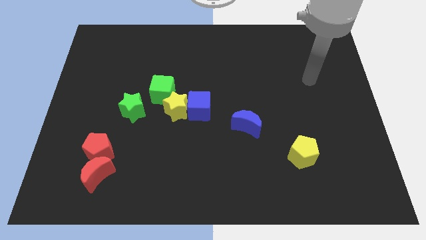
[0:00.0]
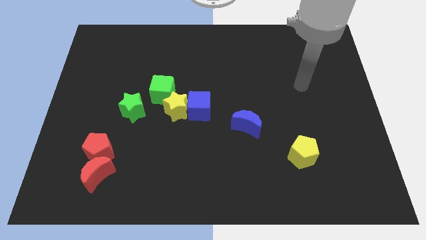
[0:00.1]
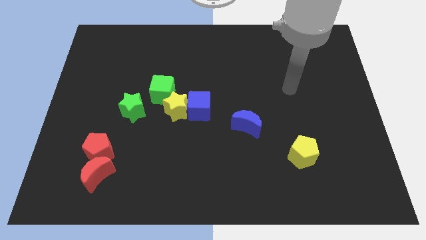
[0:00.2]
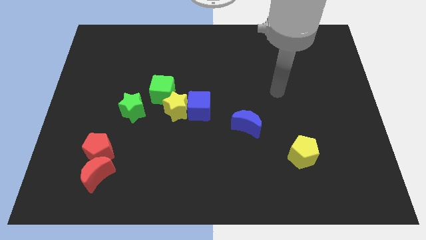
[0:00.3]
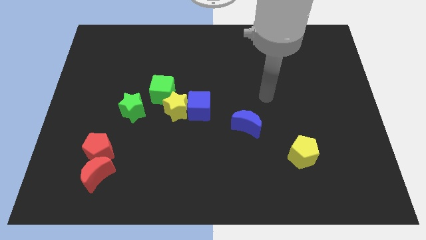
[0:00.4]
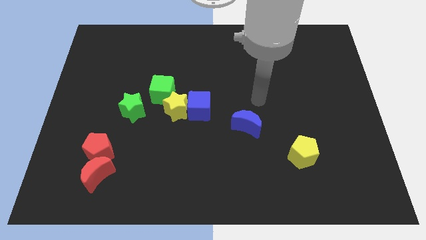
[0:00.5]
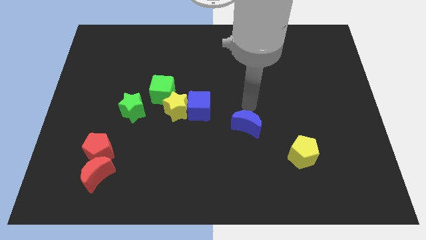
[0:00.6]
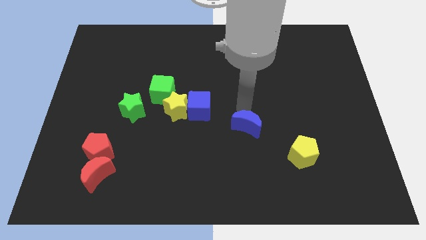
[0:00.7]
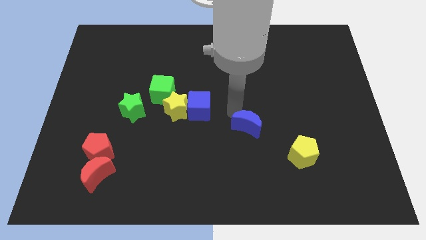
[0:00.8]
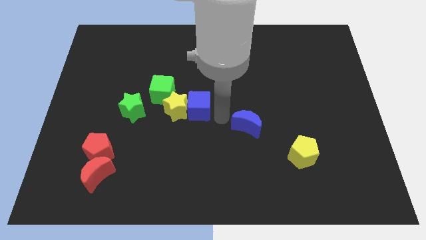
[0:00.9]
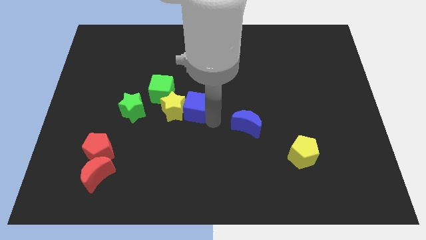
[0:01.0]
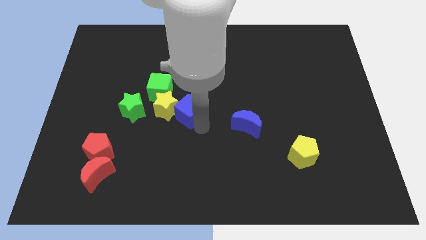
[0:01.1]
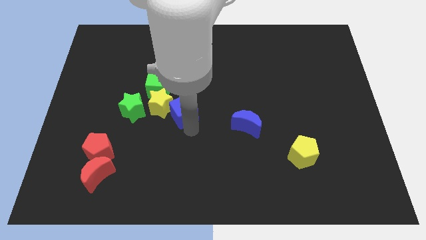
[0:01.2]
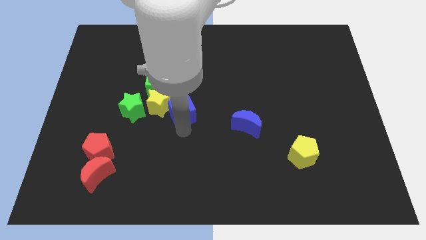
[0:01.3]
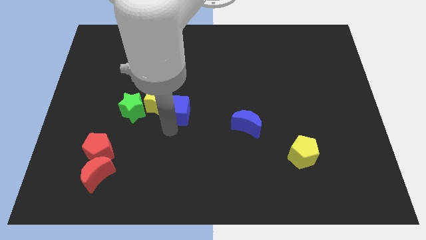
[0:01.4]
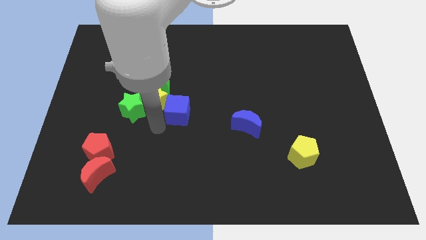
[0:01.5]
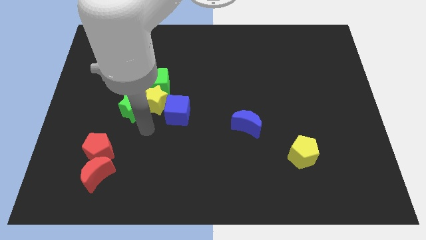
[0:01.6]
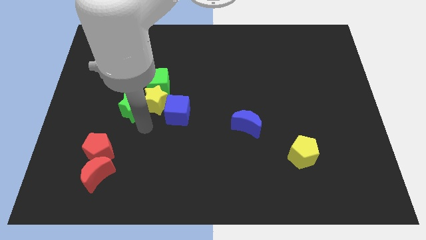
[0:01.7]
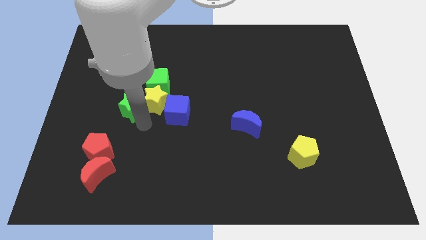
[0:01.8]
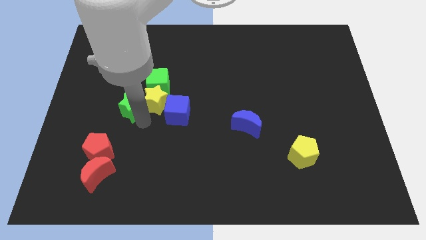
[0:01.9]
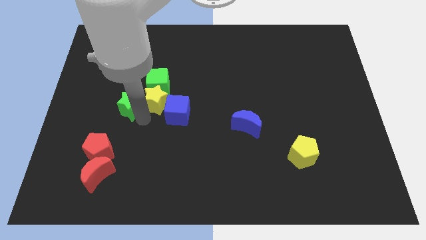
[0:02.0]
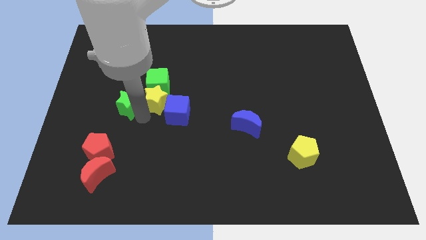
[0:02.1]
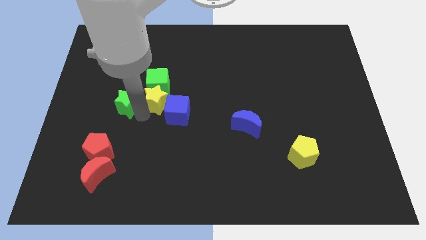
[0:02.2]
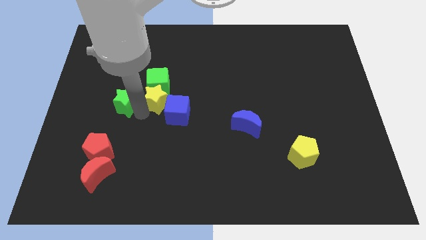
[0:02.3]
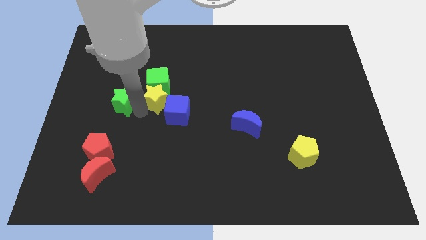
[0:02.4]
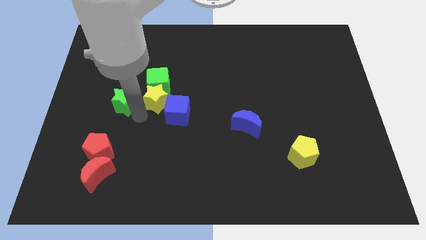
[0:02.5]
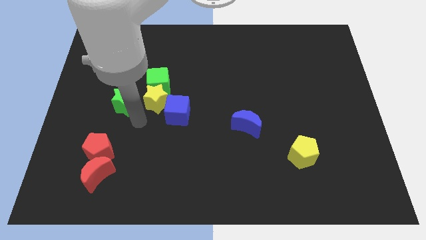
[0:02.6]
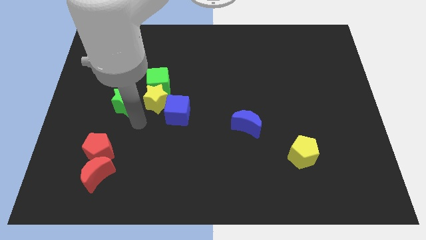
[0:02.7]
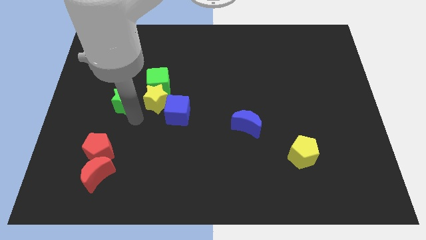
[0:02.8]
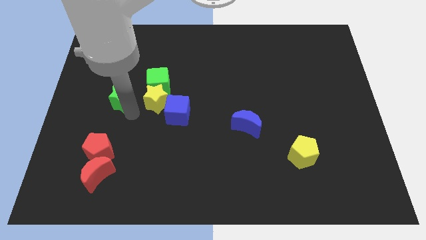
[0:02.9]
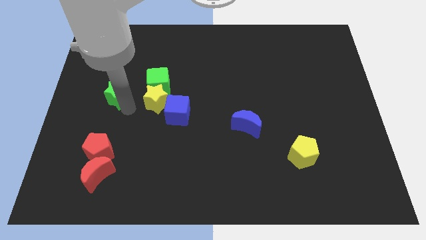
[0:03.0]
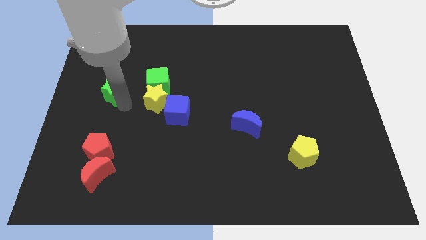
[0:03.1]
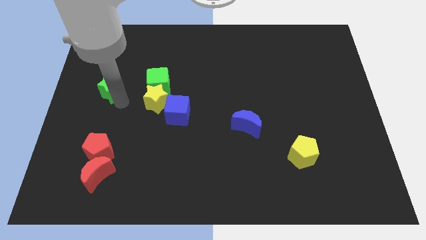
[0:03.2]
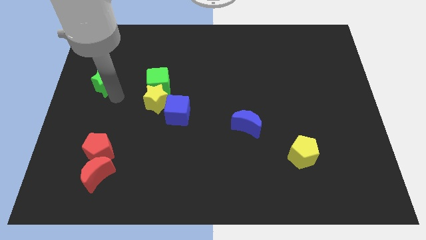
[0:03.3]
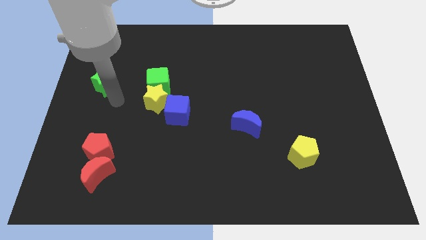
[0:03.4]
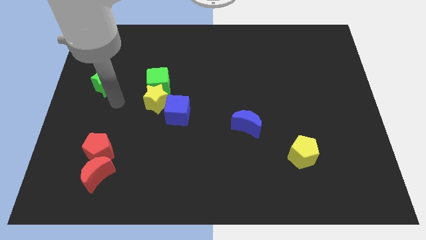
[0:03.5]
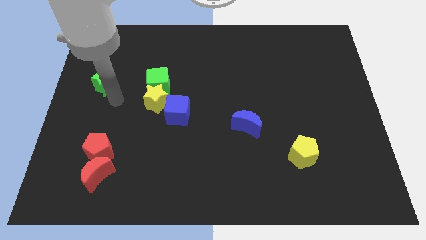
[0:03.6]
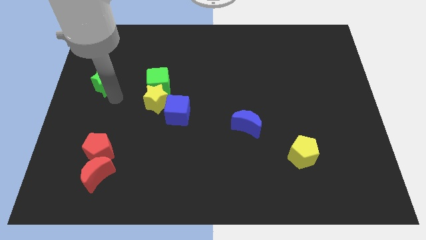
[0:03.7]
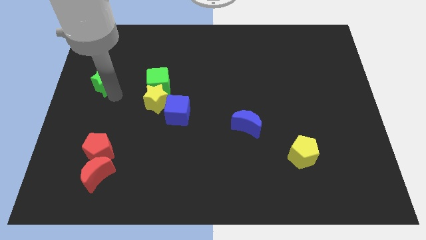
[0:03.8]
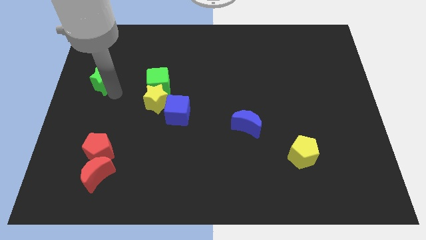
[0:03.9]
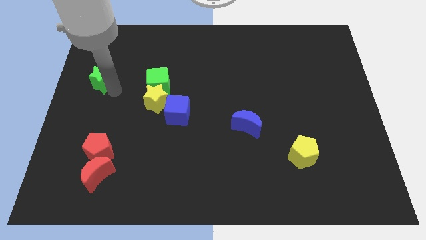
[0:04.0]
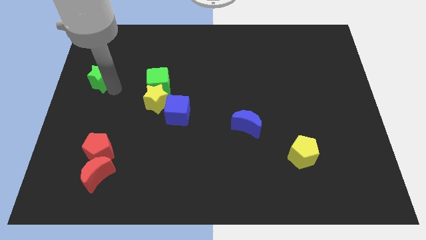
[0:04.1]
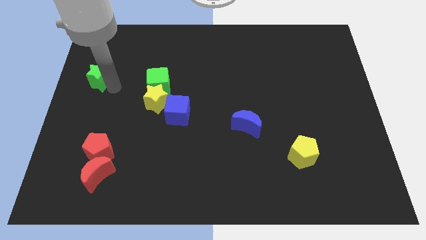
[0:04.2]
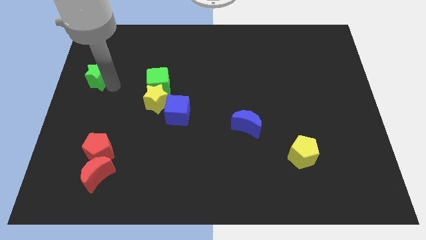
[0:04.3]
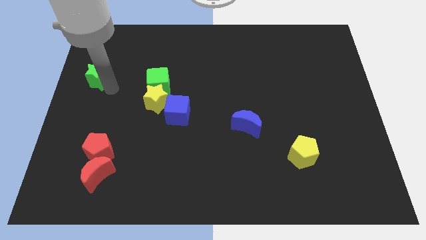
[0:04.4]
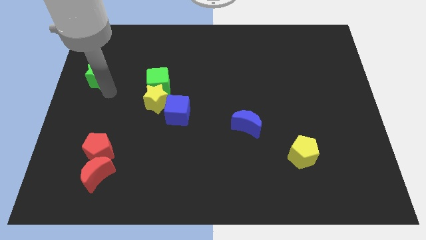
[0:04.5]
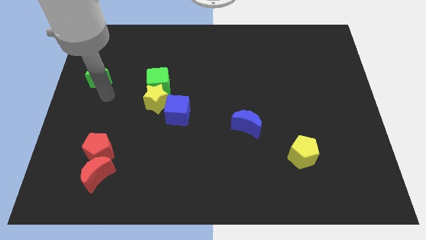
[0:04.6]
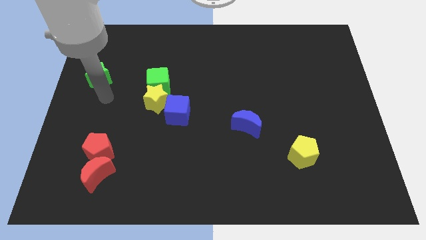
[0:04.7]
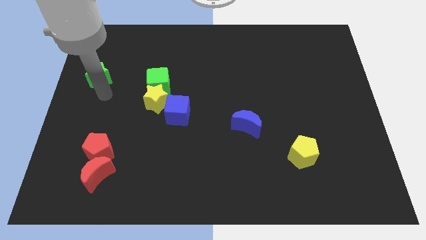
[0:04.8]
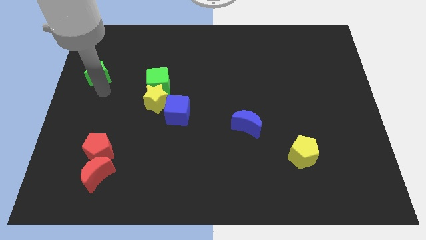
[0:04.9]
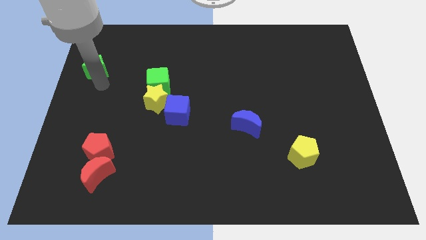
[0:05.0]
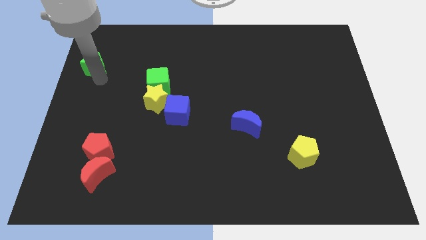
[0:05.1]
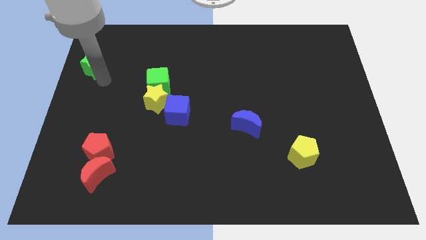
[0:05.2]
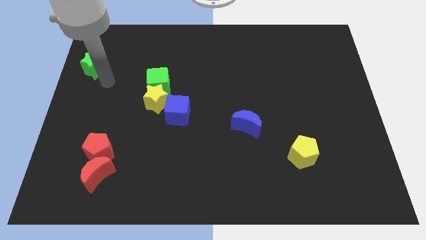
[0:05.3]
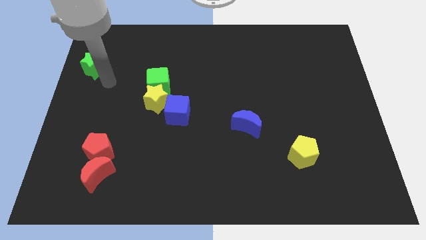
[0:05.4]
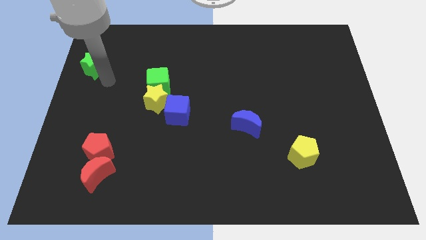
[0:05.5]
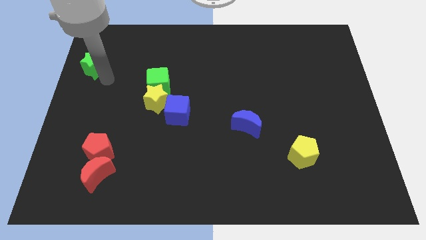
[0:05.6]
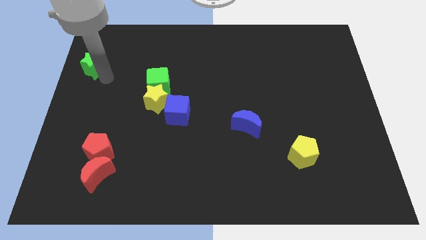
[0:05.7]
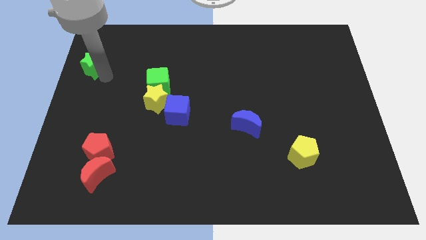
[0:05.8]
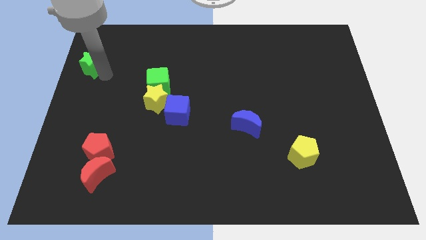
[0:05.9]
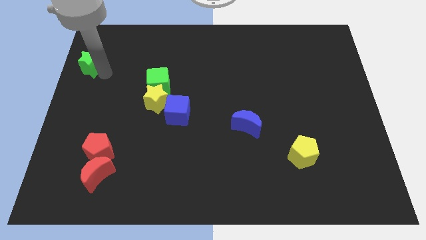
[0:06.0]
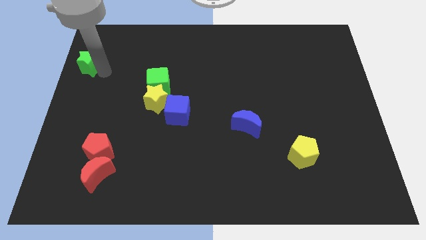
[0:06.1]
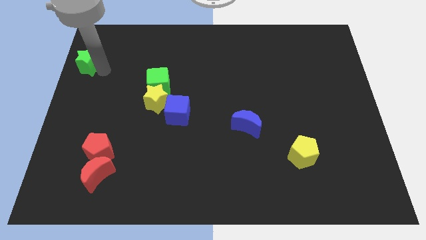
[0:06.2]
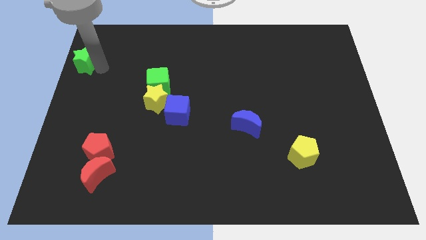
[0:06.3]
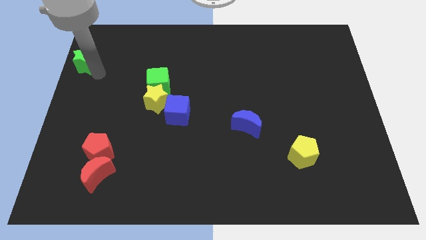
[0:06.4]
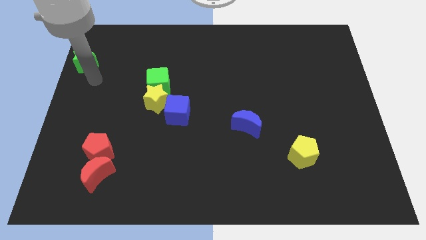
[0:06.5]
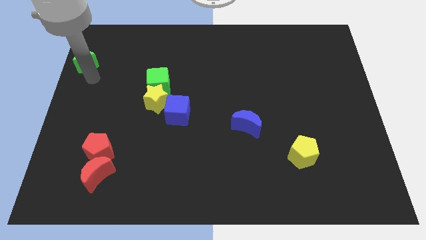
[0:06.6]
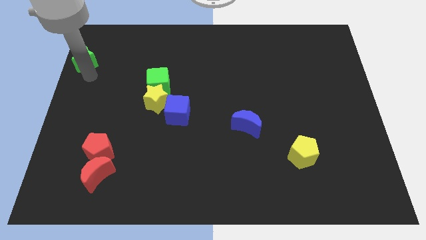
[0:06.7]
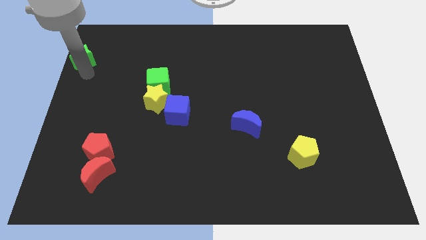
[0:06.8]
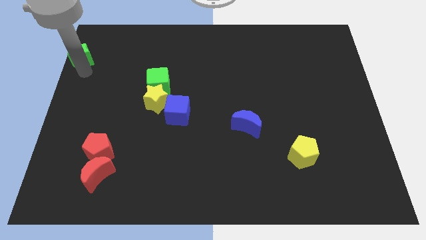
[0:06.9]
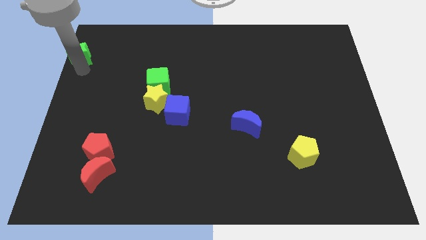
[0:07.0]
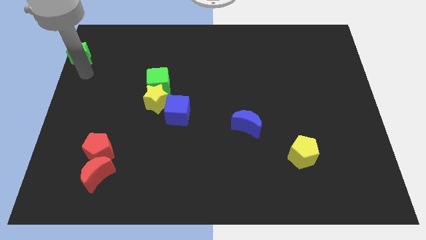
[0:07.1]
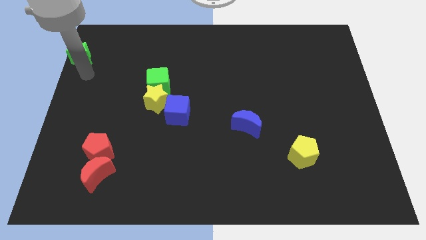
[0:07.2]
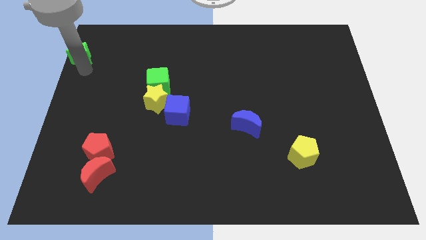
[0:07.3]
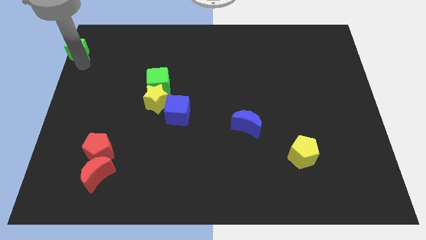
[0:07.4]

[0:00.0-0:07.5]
push the green star to the top left of the board
